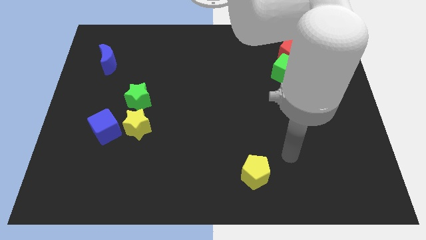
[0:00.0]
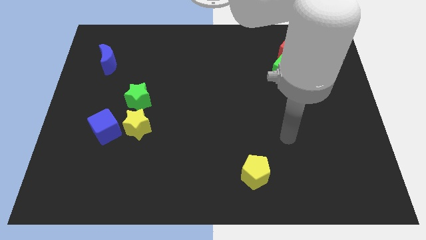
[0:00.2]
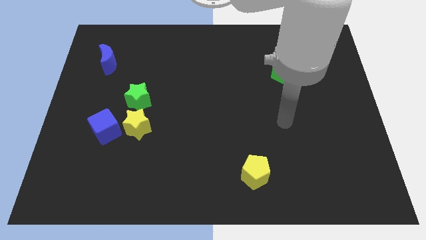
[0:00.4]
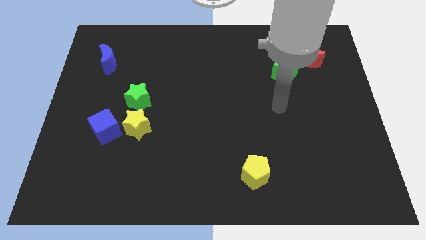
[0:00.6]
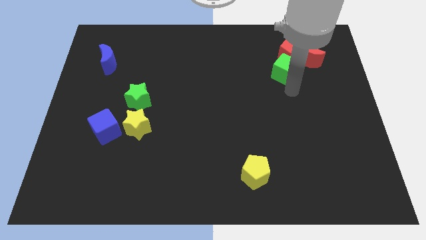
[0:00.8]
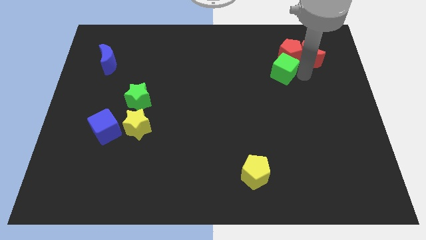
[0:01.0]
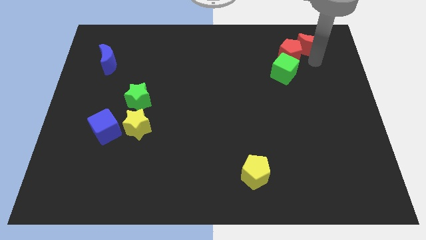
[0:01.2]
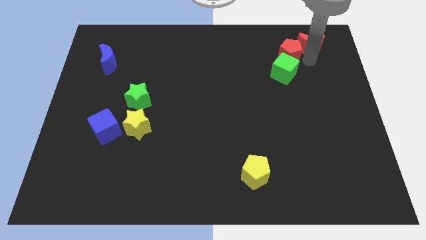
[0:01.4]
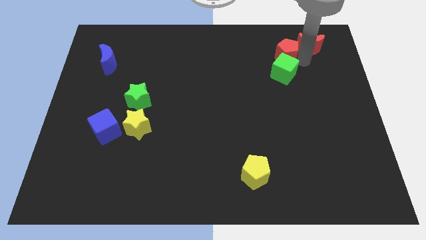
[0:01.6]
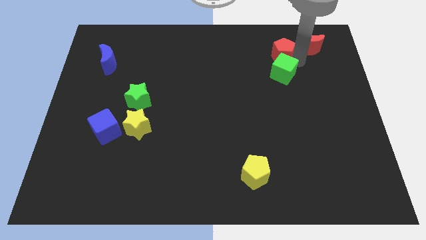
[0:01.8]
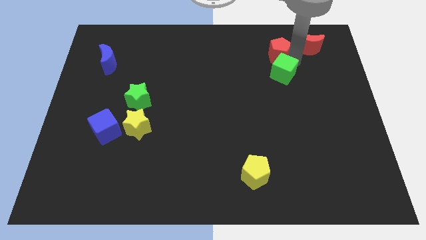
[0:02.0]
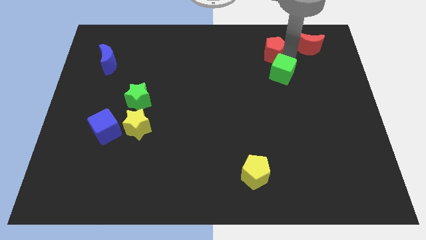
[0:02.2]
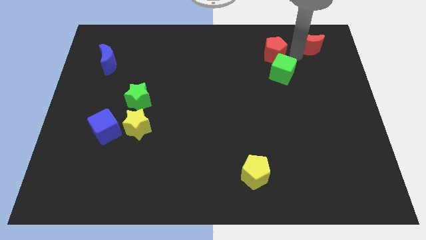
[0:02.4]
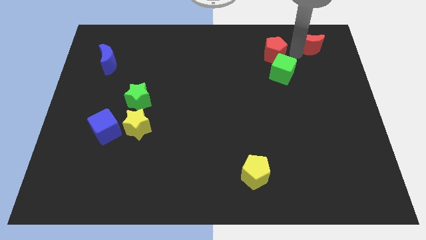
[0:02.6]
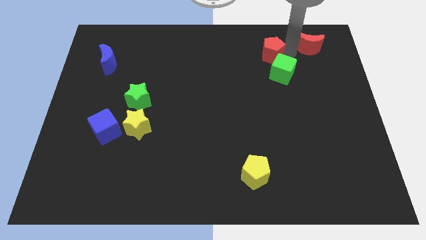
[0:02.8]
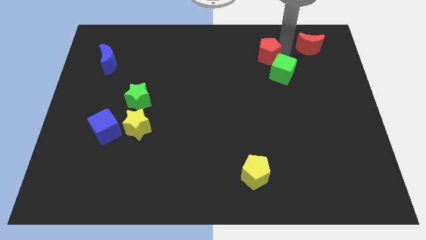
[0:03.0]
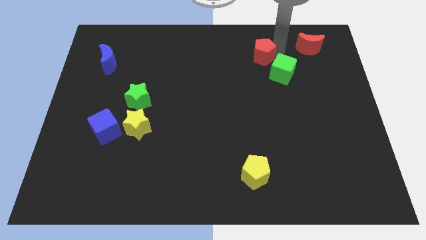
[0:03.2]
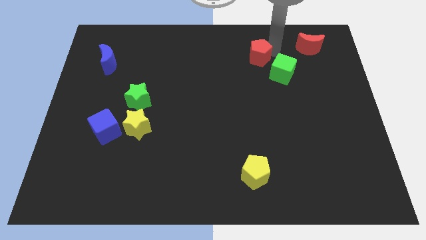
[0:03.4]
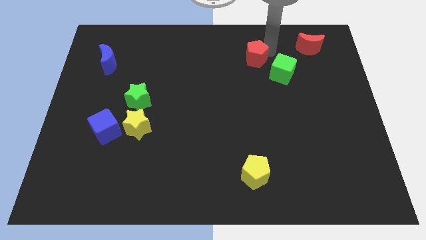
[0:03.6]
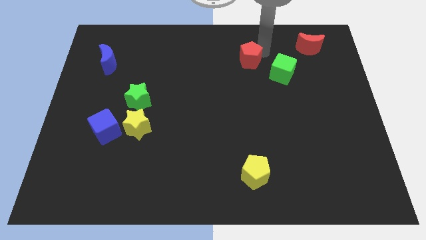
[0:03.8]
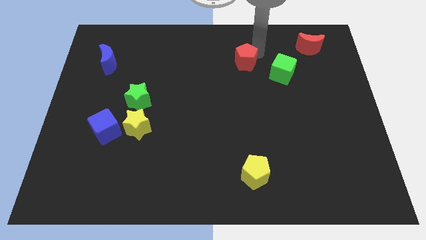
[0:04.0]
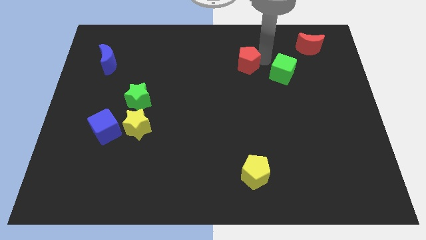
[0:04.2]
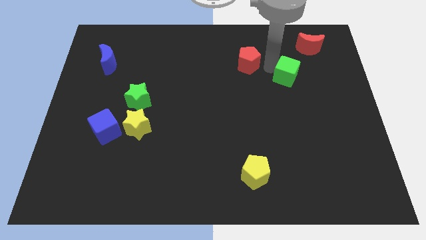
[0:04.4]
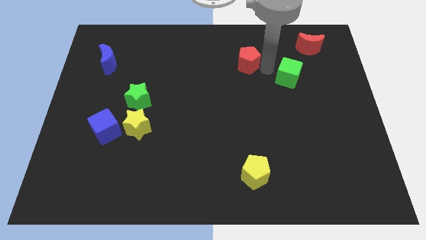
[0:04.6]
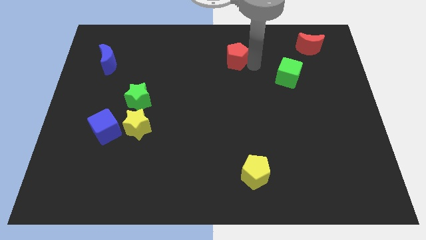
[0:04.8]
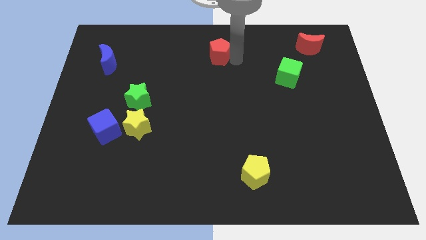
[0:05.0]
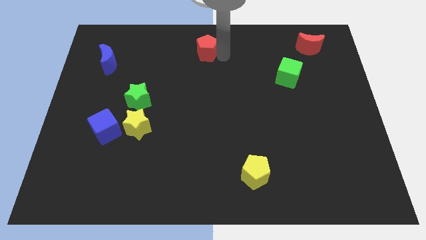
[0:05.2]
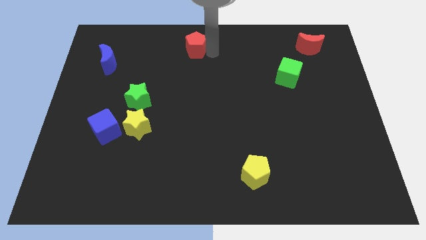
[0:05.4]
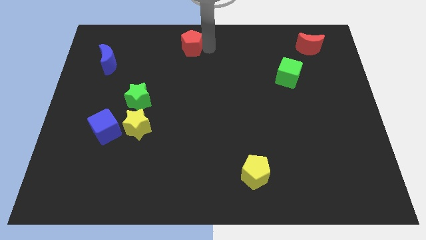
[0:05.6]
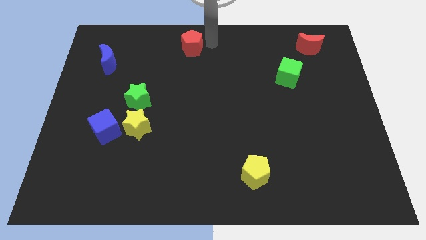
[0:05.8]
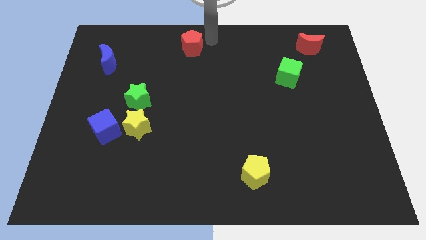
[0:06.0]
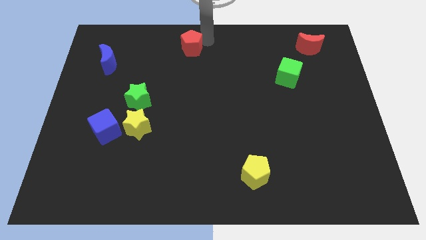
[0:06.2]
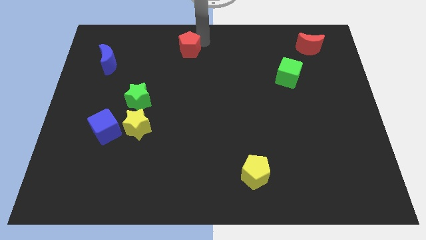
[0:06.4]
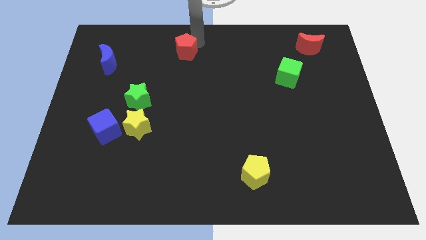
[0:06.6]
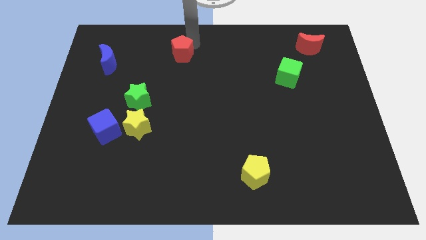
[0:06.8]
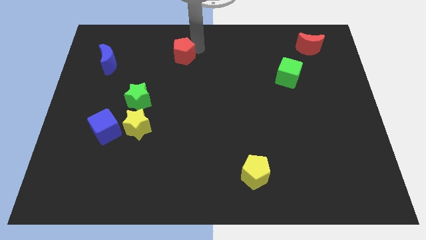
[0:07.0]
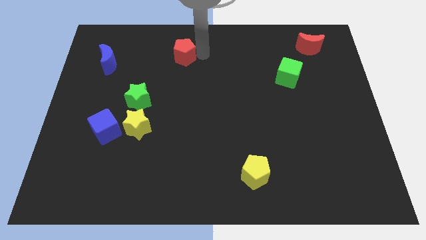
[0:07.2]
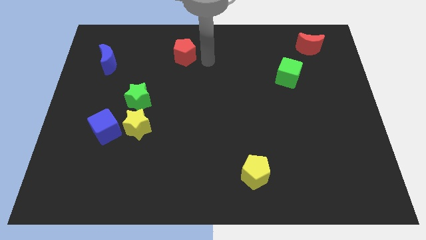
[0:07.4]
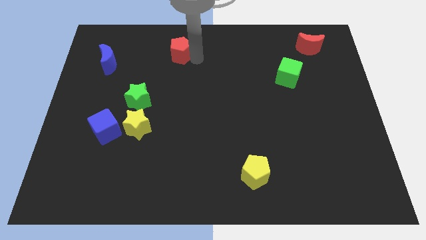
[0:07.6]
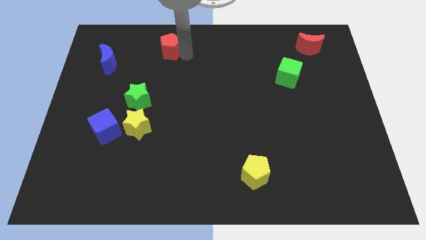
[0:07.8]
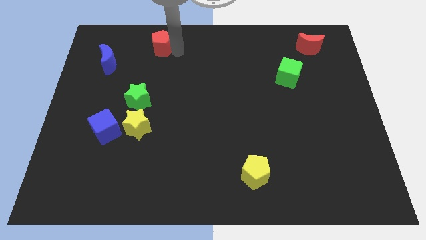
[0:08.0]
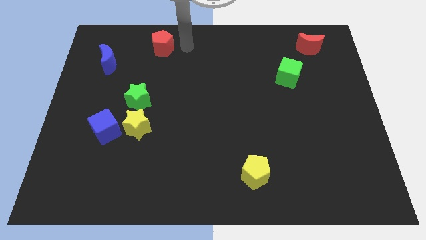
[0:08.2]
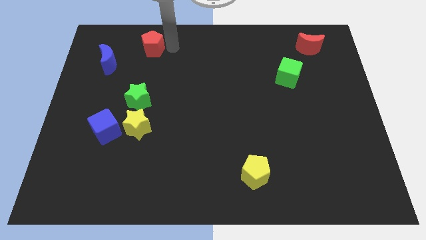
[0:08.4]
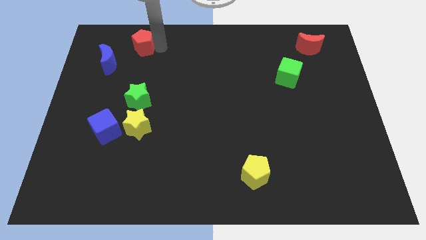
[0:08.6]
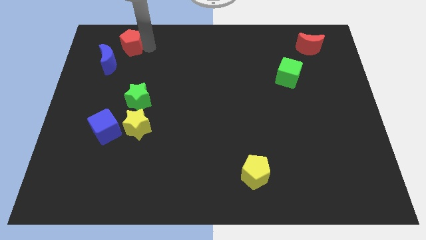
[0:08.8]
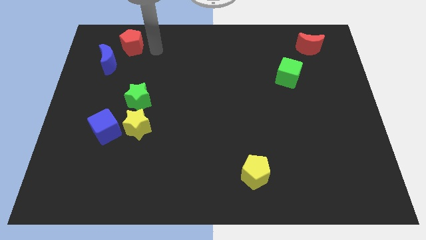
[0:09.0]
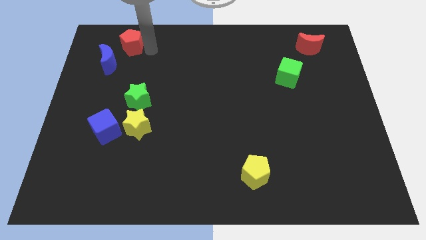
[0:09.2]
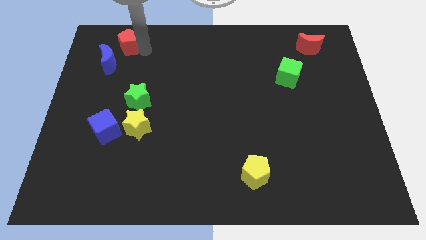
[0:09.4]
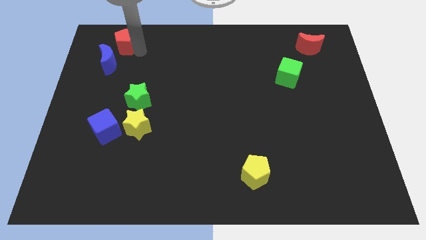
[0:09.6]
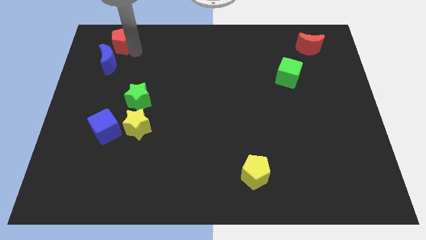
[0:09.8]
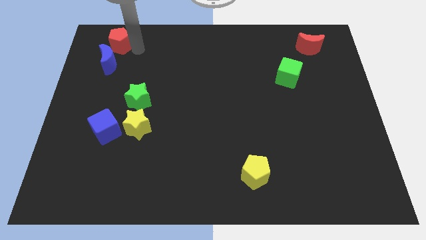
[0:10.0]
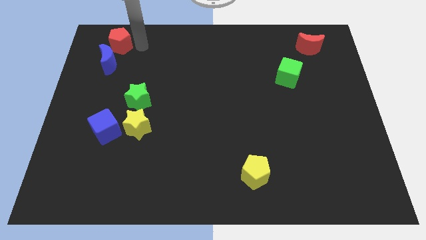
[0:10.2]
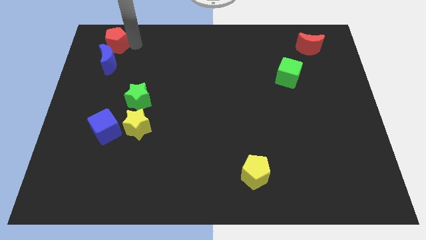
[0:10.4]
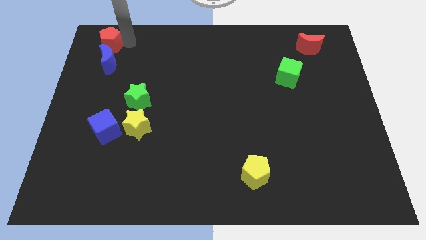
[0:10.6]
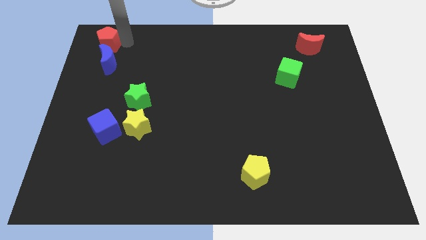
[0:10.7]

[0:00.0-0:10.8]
slide the red pentagon to the top left

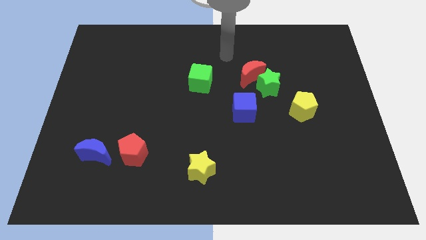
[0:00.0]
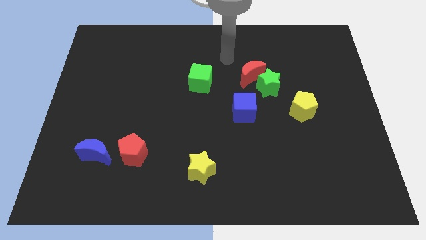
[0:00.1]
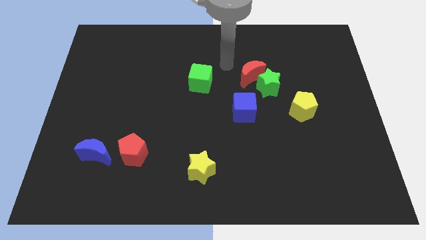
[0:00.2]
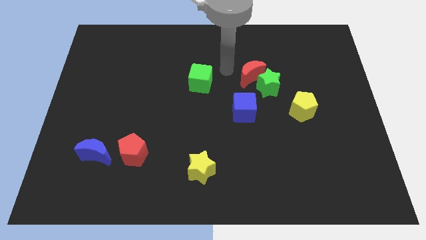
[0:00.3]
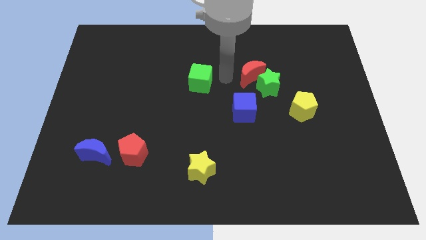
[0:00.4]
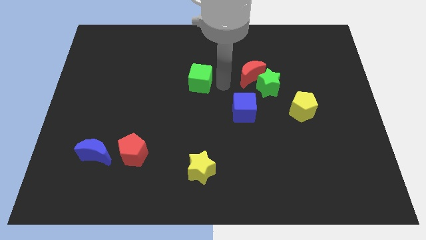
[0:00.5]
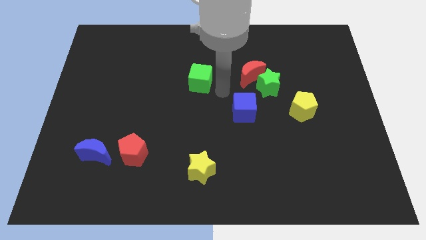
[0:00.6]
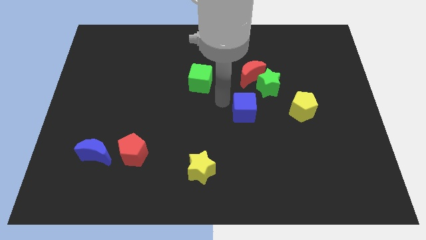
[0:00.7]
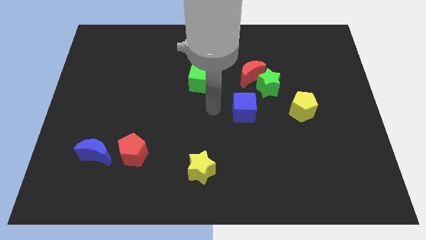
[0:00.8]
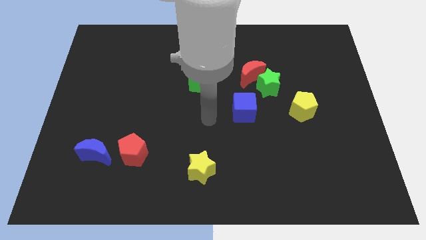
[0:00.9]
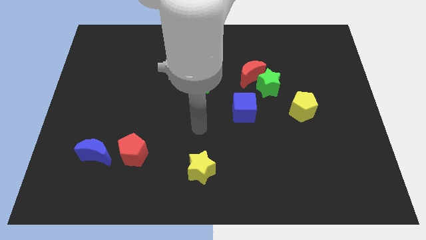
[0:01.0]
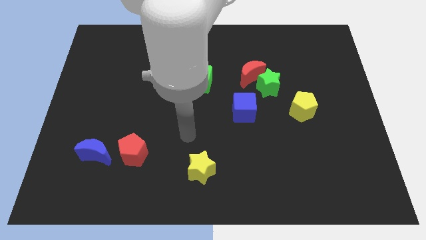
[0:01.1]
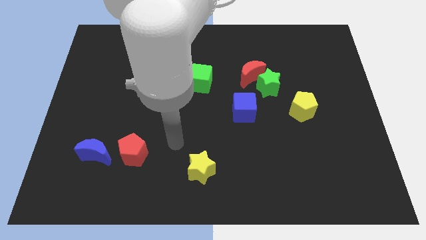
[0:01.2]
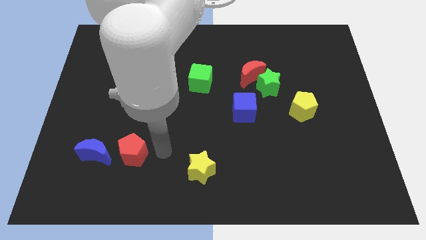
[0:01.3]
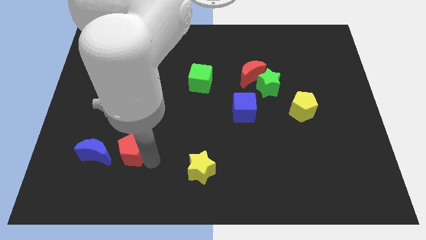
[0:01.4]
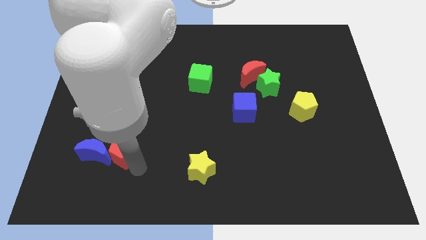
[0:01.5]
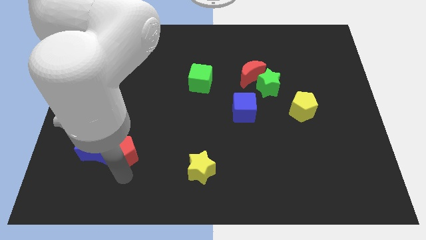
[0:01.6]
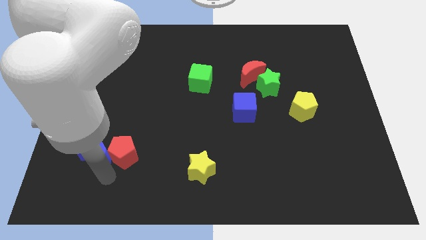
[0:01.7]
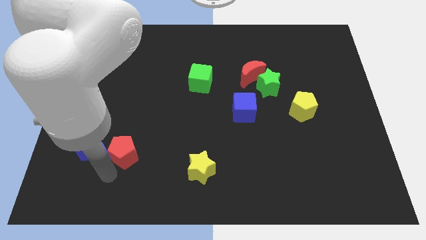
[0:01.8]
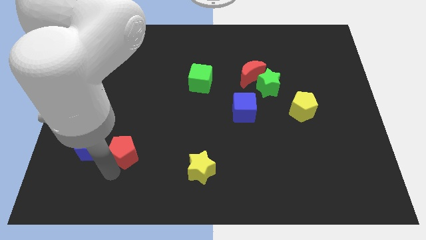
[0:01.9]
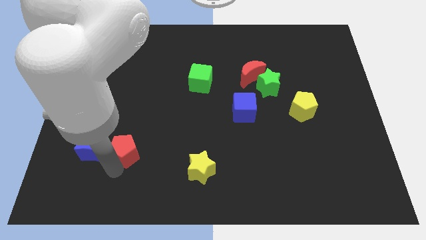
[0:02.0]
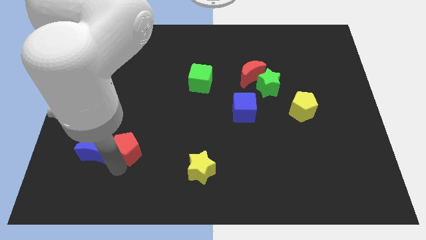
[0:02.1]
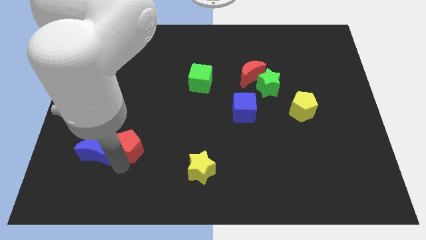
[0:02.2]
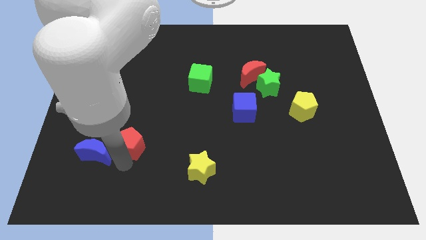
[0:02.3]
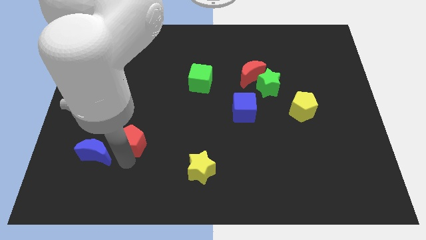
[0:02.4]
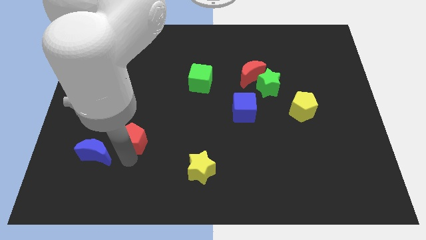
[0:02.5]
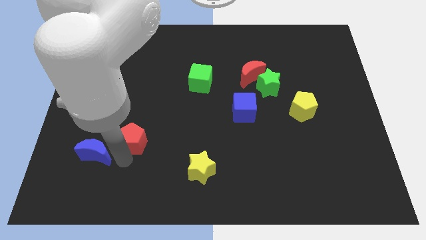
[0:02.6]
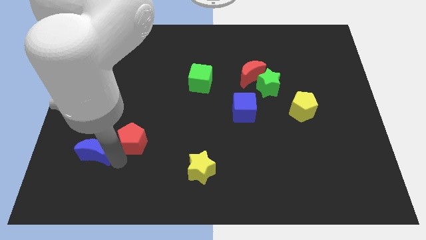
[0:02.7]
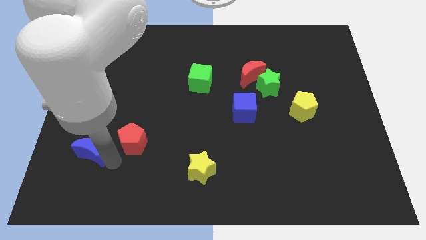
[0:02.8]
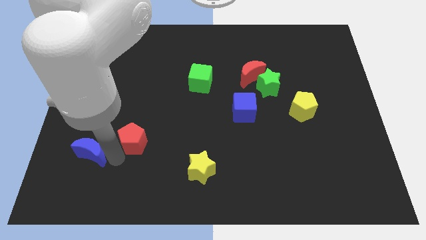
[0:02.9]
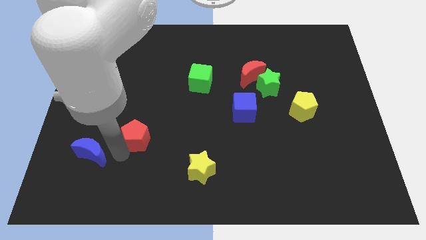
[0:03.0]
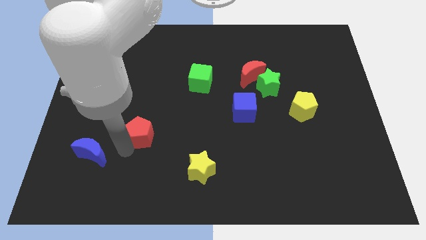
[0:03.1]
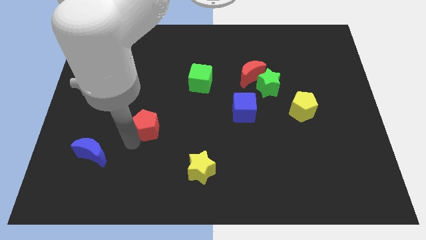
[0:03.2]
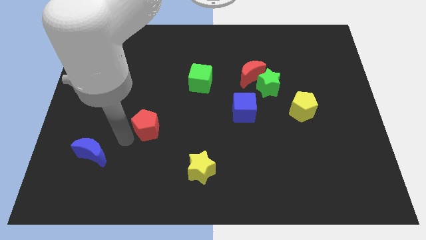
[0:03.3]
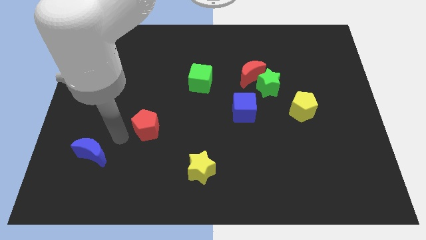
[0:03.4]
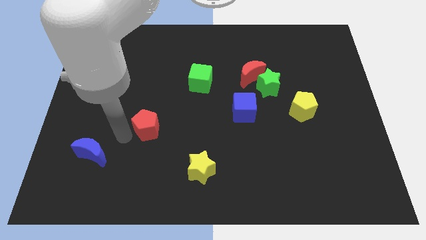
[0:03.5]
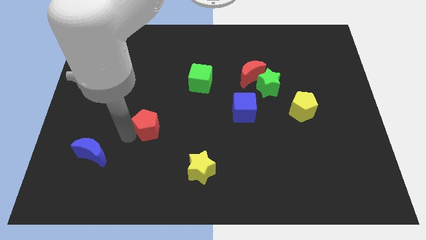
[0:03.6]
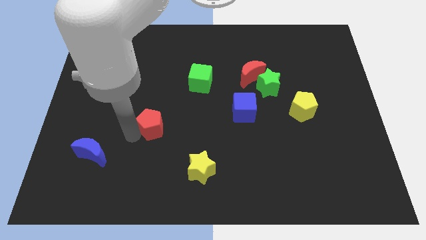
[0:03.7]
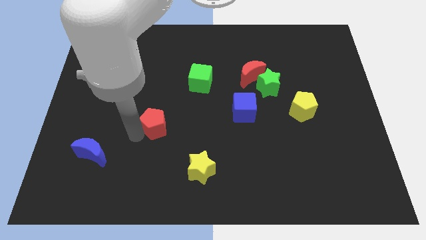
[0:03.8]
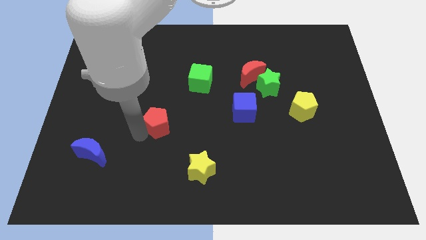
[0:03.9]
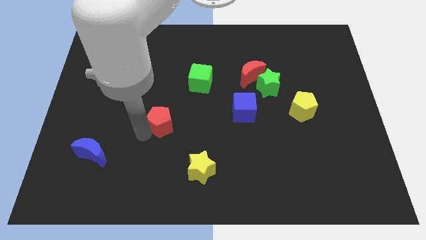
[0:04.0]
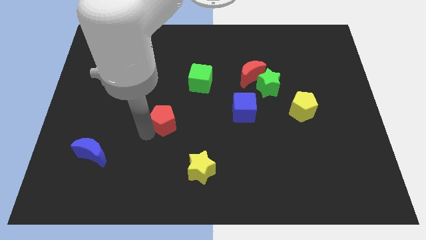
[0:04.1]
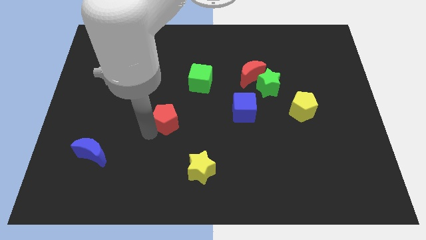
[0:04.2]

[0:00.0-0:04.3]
slide the red pentagon to the center
